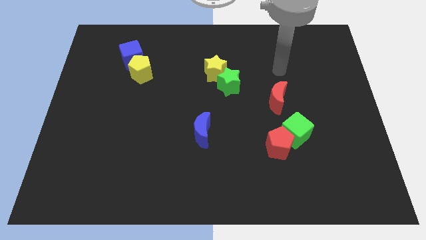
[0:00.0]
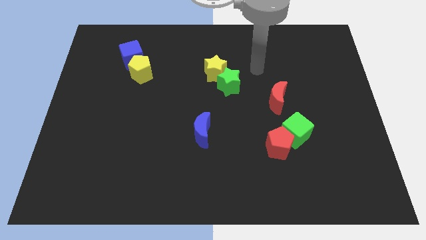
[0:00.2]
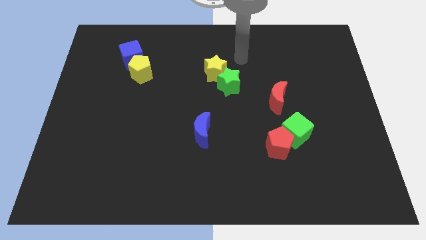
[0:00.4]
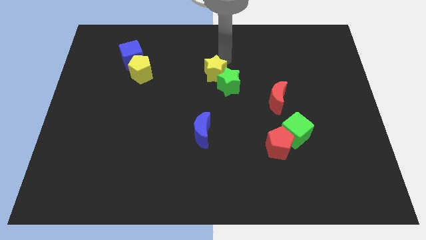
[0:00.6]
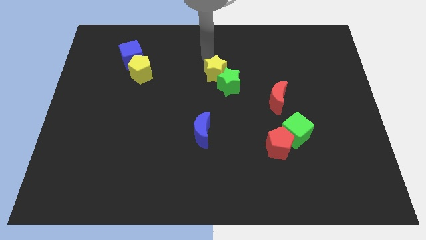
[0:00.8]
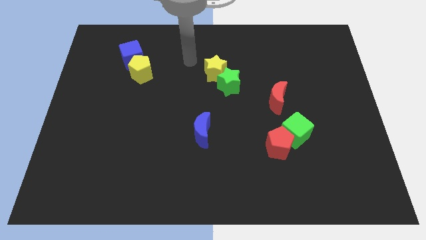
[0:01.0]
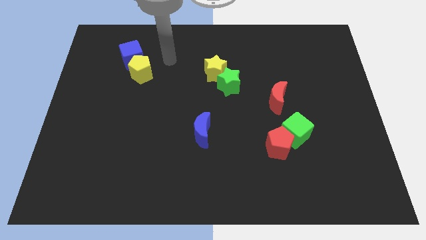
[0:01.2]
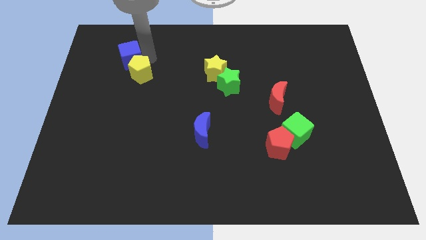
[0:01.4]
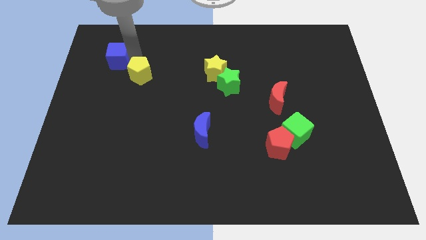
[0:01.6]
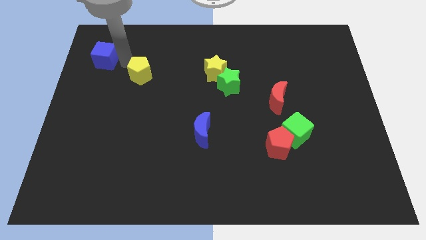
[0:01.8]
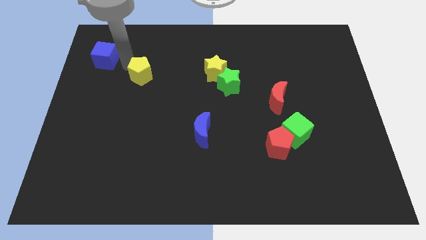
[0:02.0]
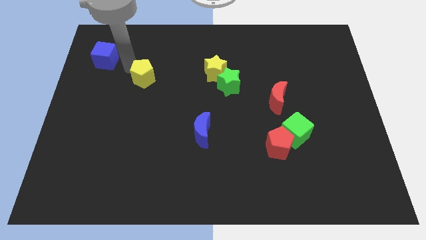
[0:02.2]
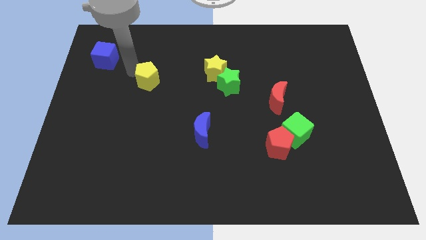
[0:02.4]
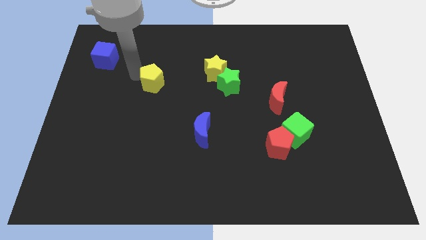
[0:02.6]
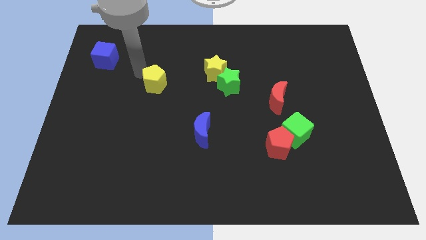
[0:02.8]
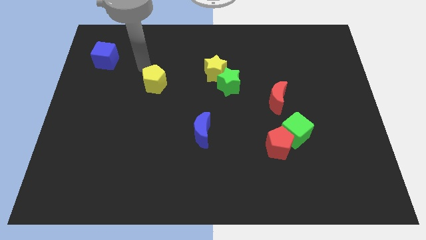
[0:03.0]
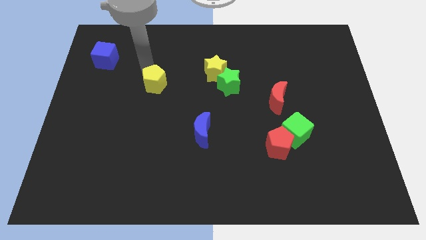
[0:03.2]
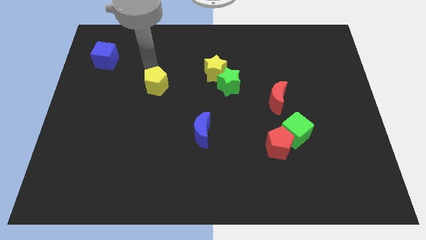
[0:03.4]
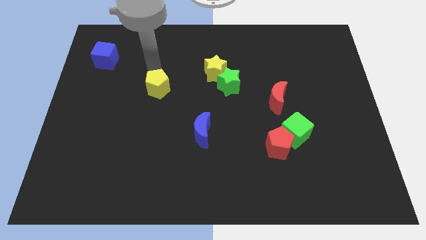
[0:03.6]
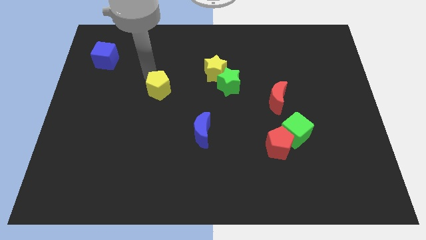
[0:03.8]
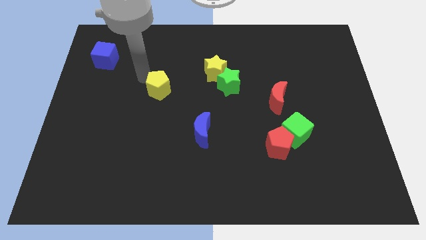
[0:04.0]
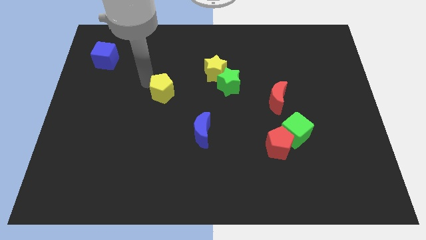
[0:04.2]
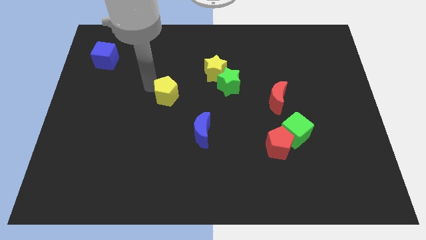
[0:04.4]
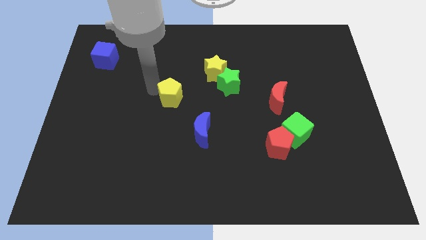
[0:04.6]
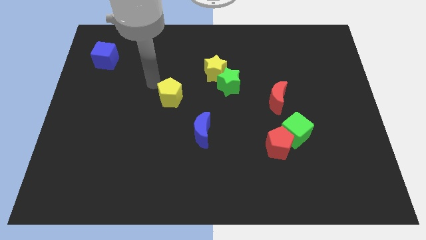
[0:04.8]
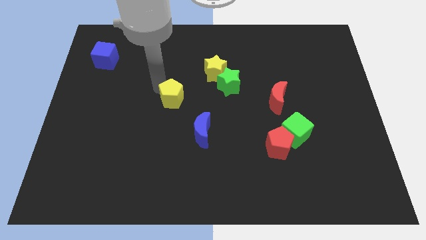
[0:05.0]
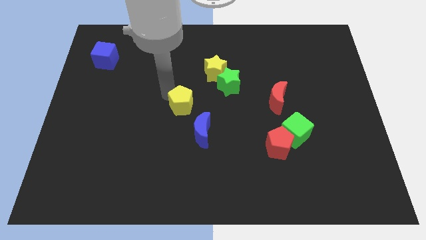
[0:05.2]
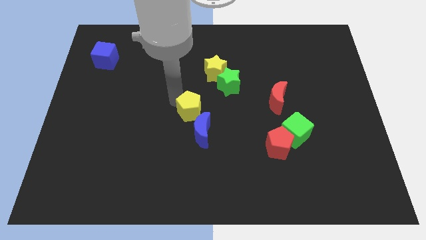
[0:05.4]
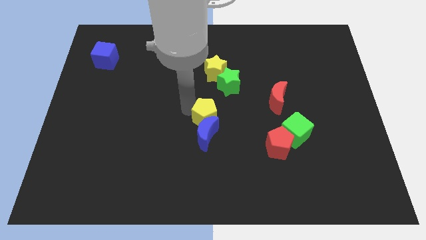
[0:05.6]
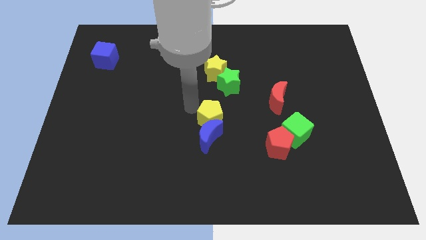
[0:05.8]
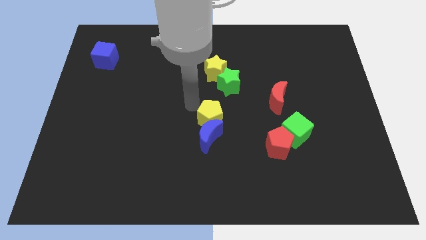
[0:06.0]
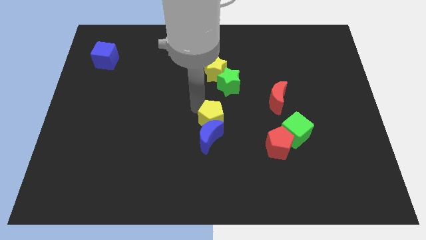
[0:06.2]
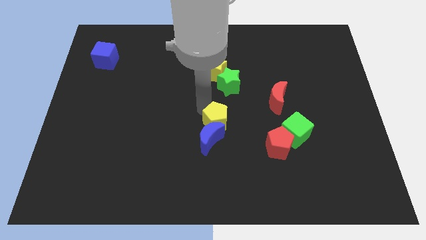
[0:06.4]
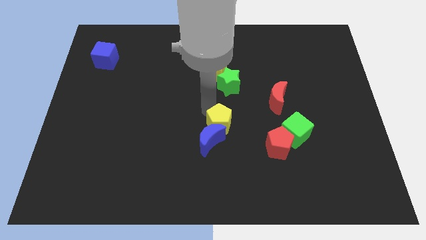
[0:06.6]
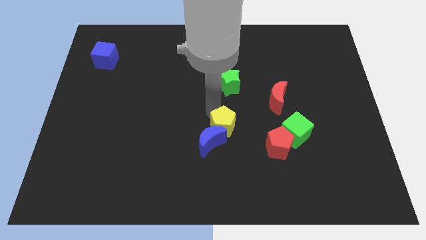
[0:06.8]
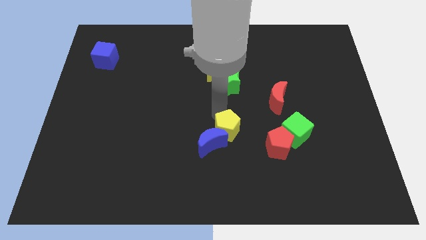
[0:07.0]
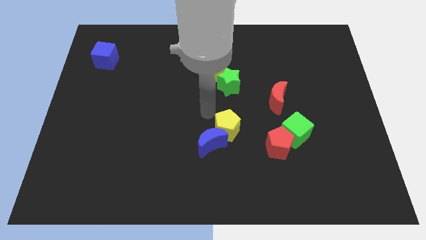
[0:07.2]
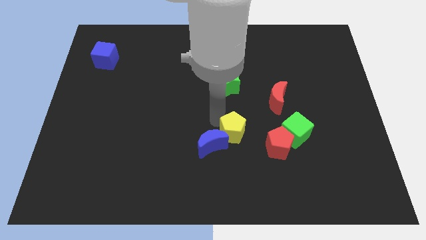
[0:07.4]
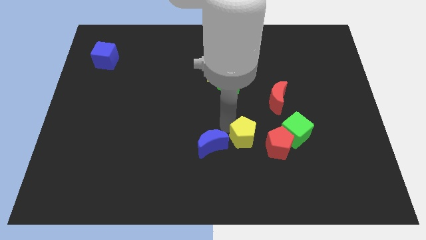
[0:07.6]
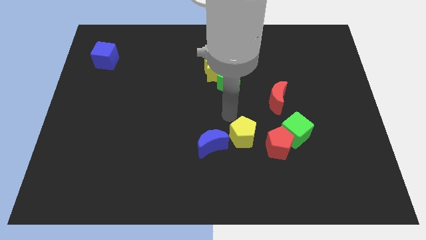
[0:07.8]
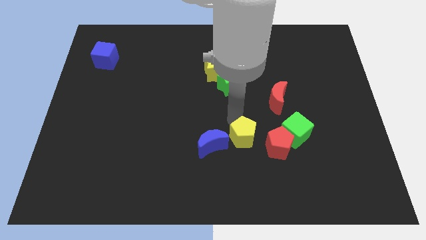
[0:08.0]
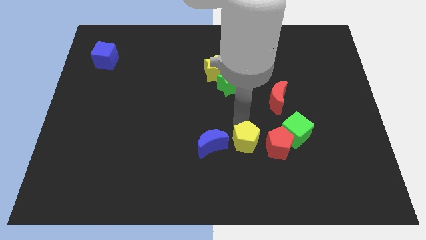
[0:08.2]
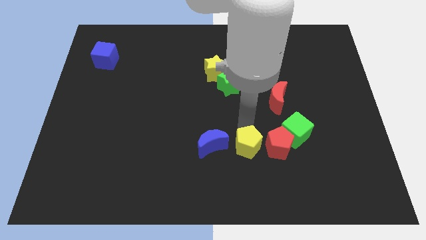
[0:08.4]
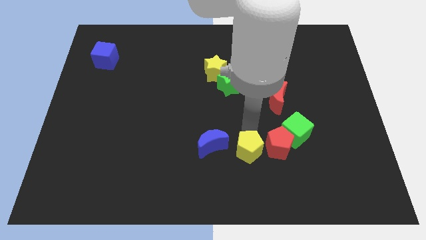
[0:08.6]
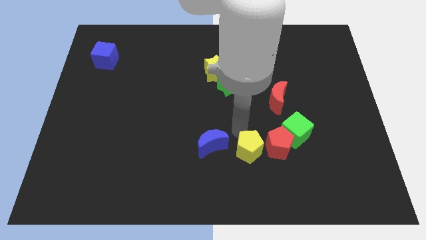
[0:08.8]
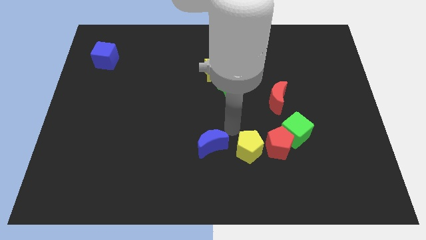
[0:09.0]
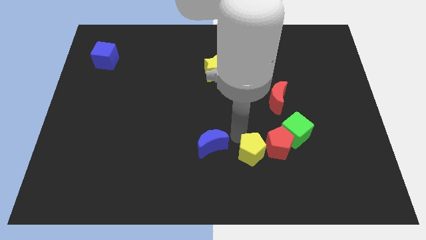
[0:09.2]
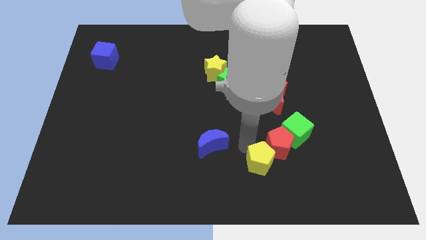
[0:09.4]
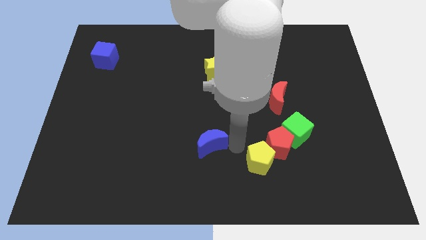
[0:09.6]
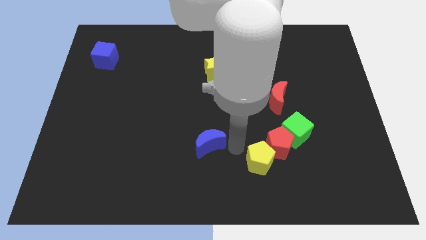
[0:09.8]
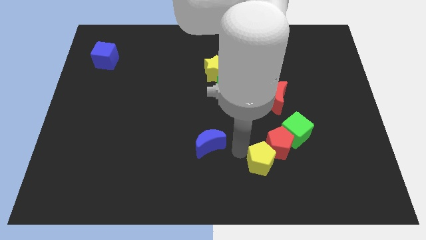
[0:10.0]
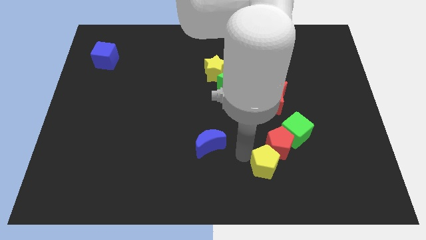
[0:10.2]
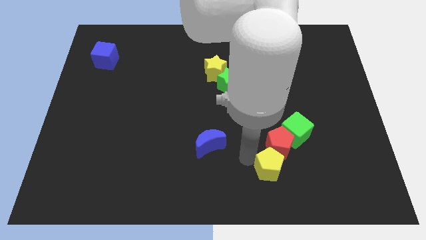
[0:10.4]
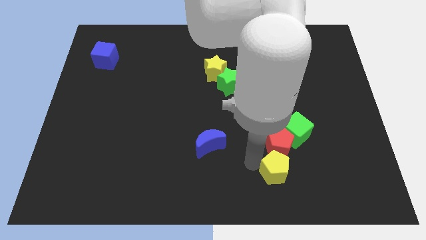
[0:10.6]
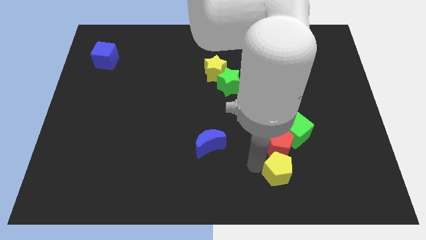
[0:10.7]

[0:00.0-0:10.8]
push the yellow pentagon to the bottom of the green cube

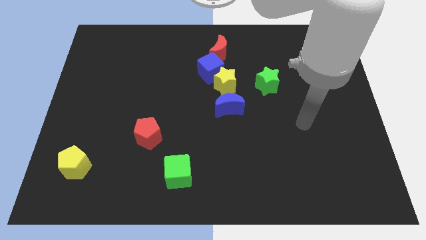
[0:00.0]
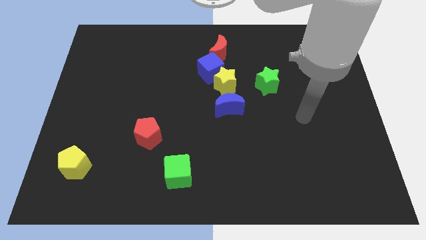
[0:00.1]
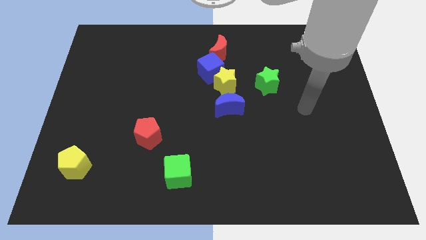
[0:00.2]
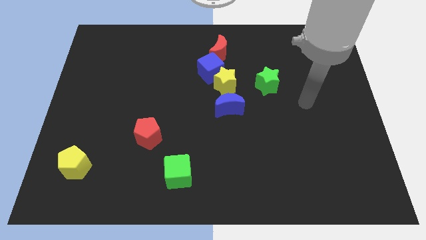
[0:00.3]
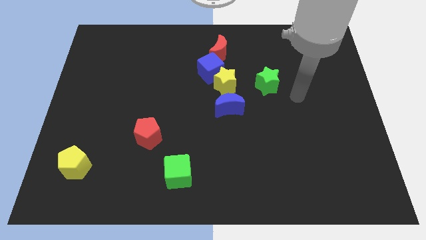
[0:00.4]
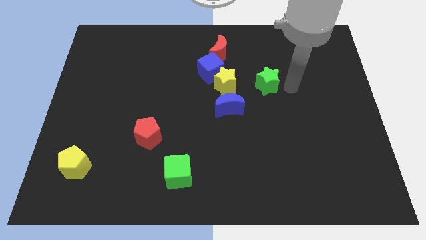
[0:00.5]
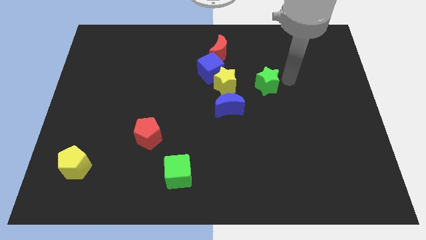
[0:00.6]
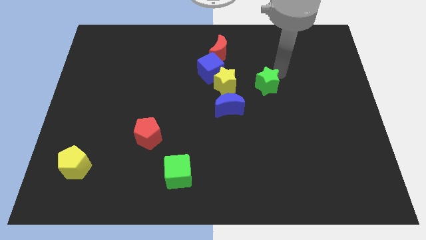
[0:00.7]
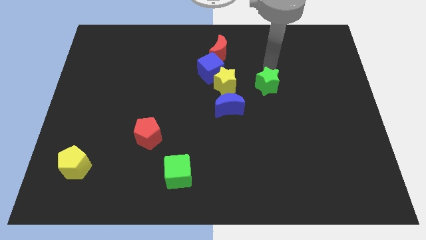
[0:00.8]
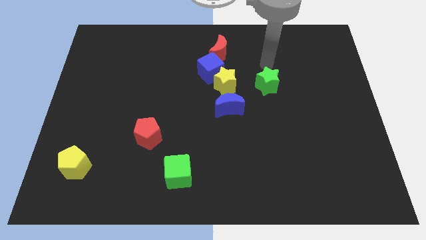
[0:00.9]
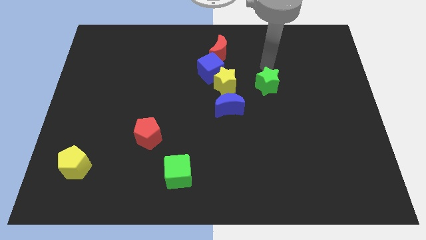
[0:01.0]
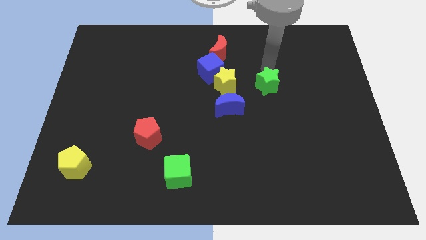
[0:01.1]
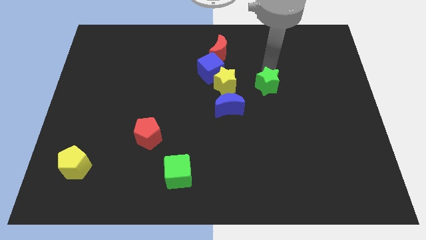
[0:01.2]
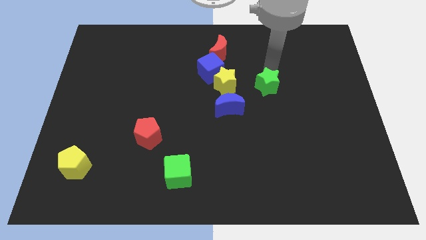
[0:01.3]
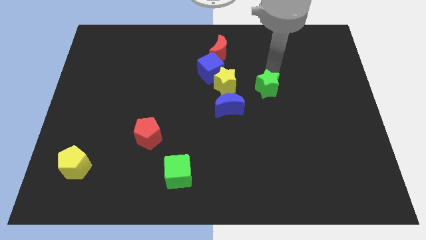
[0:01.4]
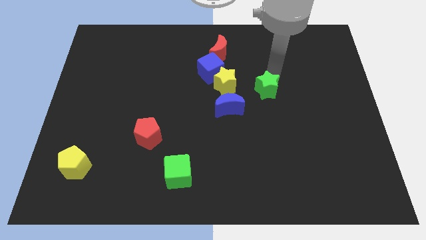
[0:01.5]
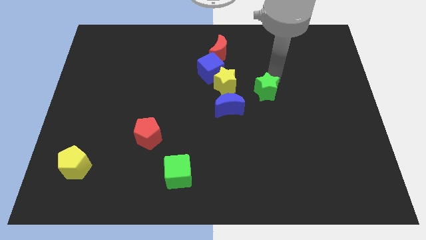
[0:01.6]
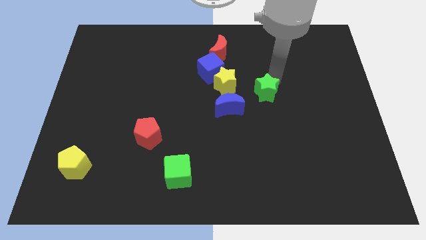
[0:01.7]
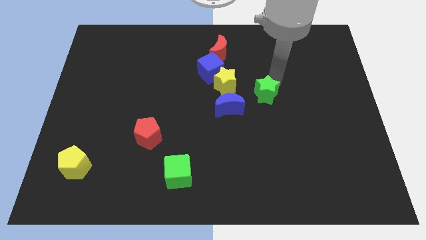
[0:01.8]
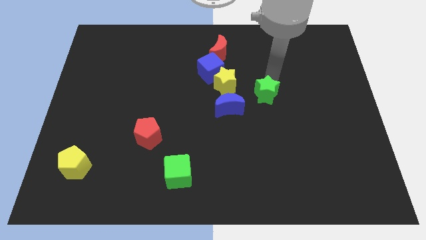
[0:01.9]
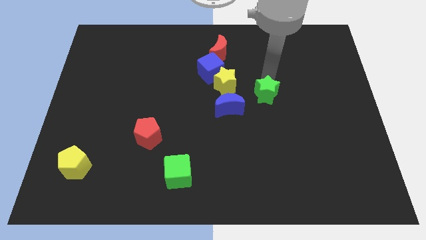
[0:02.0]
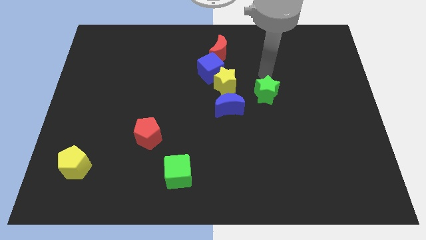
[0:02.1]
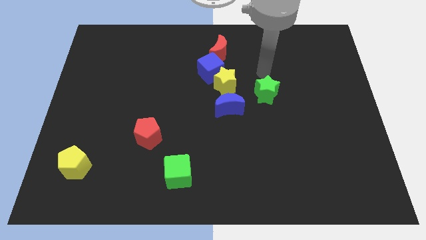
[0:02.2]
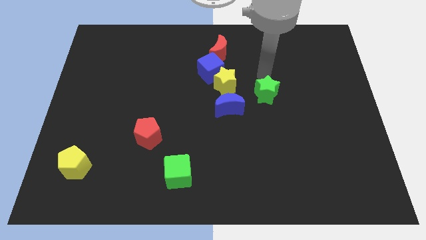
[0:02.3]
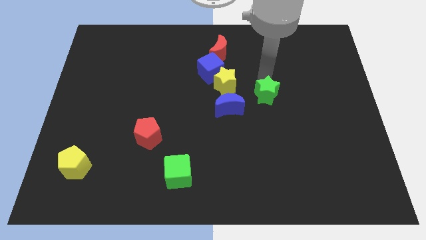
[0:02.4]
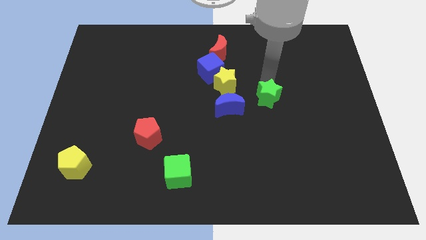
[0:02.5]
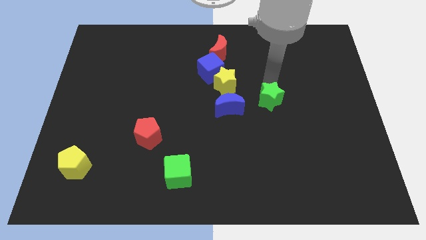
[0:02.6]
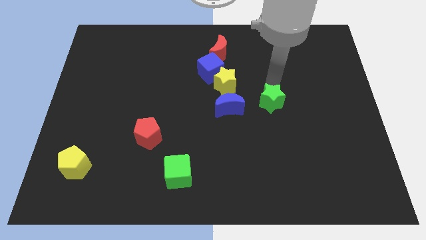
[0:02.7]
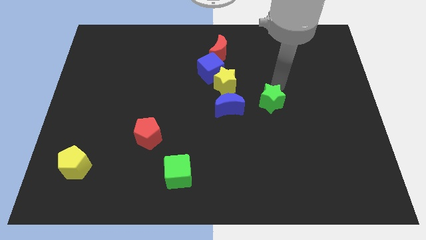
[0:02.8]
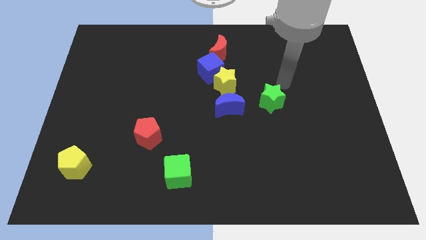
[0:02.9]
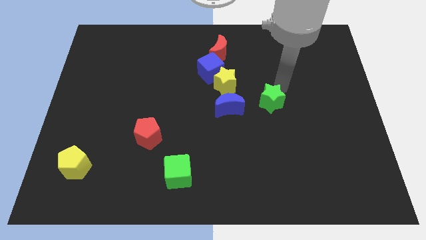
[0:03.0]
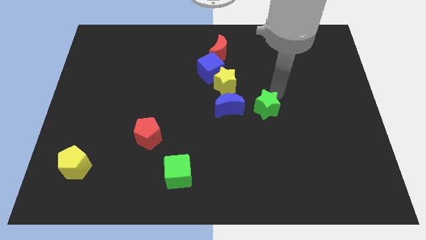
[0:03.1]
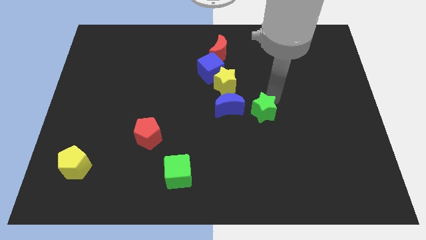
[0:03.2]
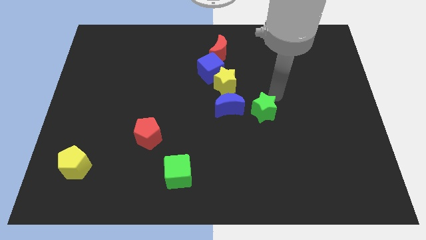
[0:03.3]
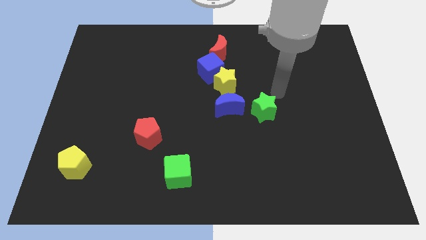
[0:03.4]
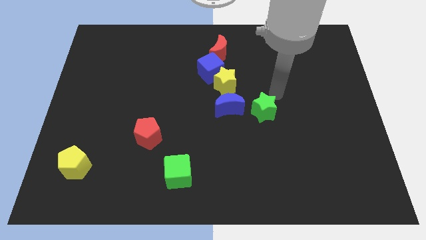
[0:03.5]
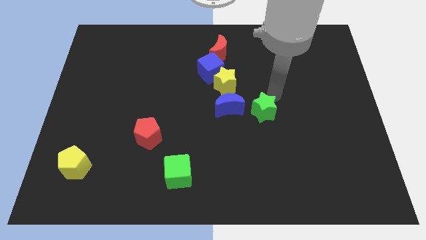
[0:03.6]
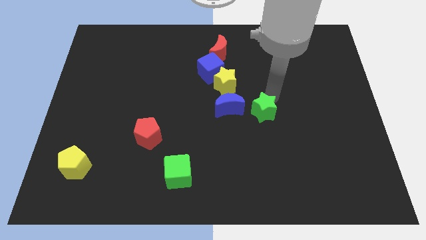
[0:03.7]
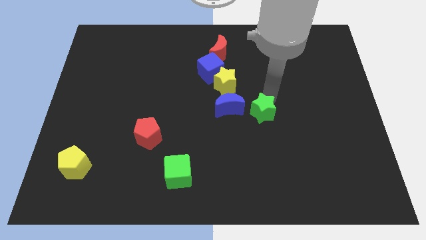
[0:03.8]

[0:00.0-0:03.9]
move the green star diagonally down and to the right of the blue moon
